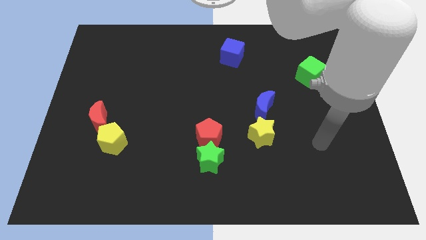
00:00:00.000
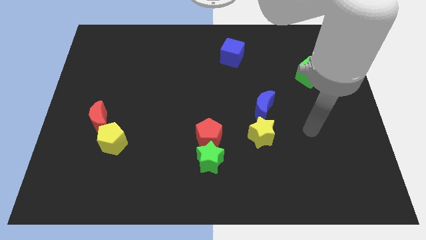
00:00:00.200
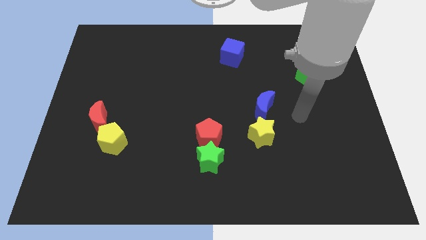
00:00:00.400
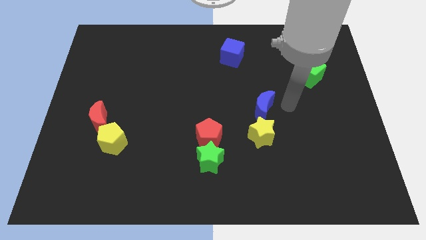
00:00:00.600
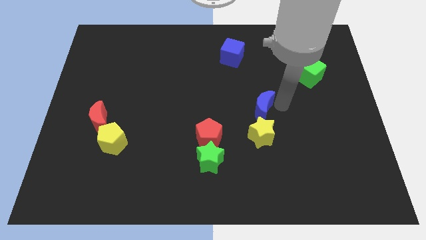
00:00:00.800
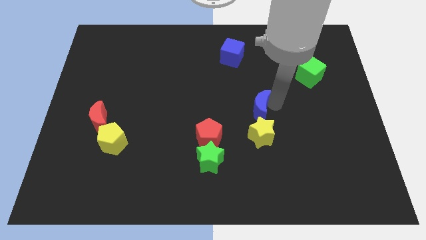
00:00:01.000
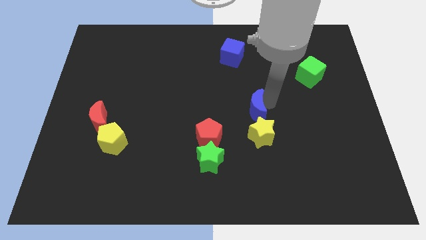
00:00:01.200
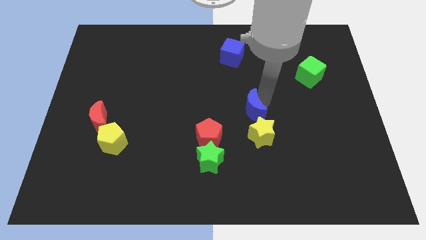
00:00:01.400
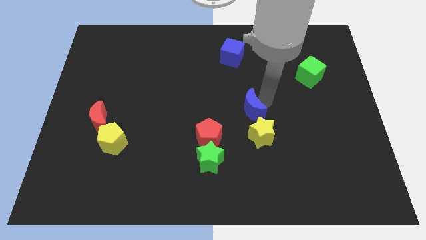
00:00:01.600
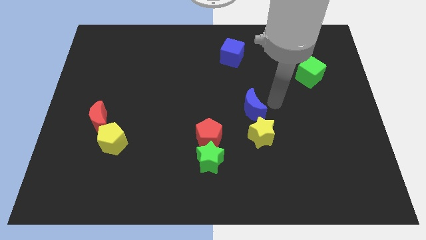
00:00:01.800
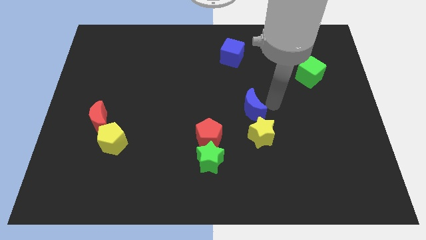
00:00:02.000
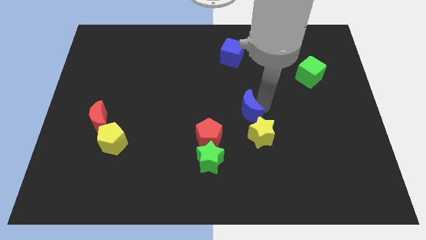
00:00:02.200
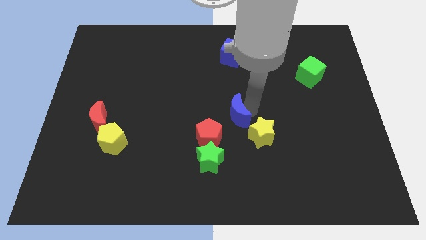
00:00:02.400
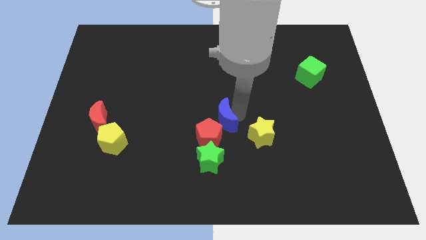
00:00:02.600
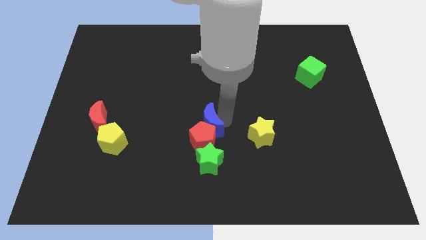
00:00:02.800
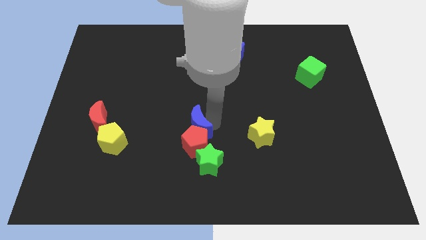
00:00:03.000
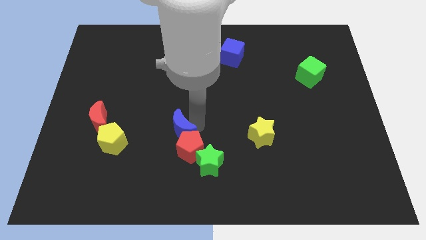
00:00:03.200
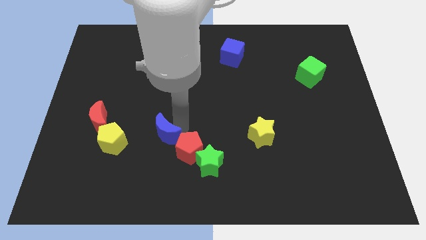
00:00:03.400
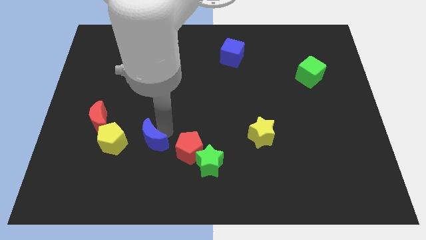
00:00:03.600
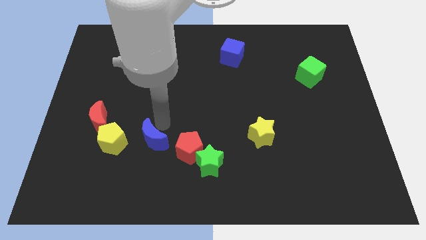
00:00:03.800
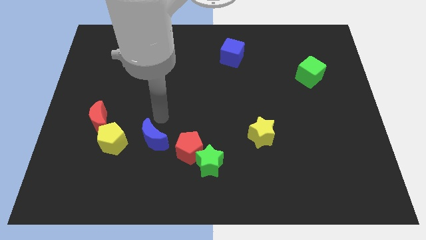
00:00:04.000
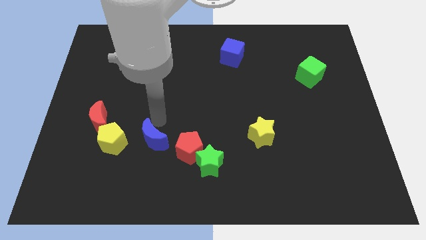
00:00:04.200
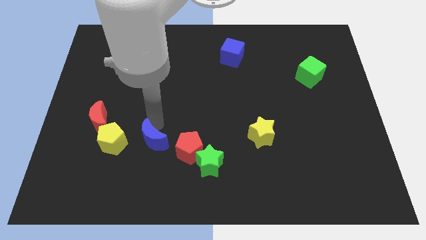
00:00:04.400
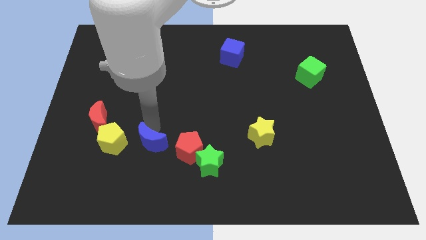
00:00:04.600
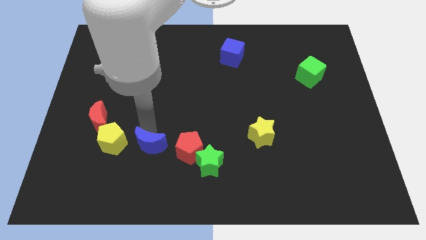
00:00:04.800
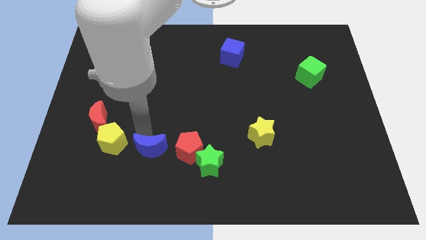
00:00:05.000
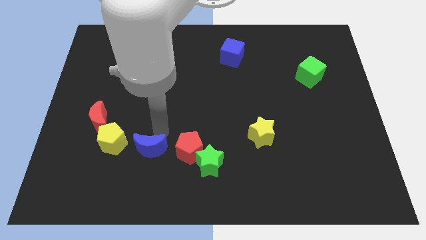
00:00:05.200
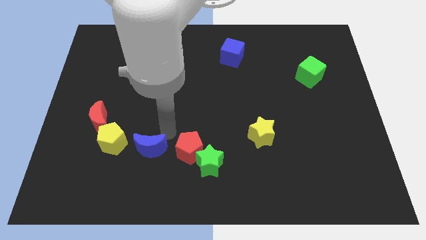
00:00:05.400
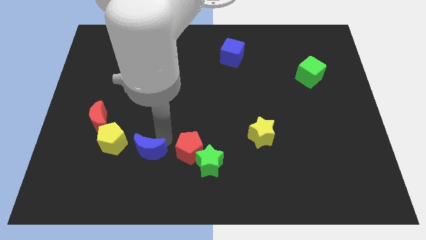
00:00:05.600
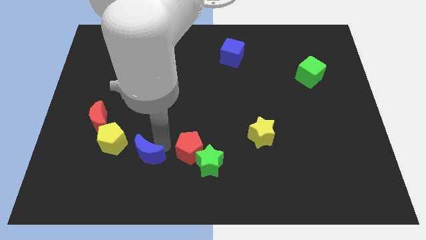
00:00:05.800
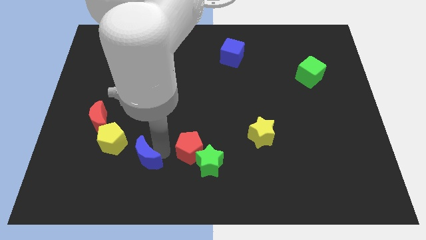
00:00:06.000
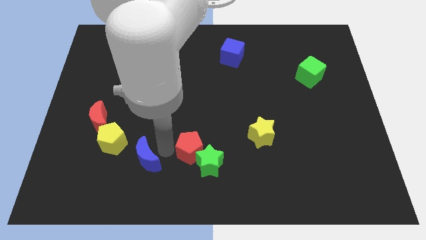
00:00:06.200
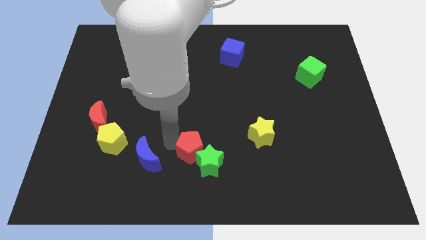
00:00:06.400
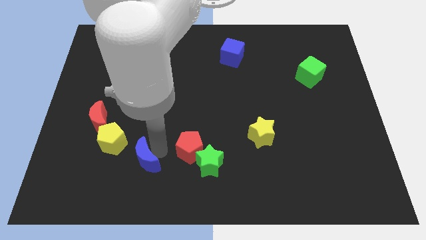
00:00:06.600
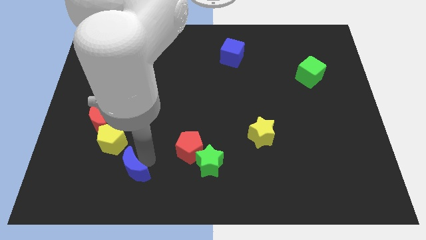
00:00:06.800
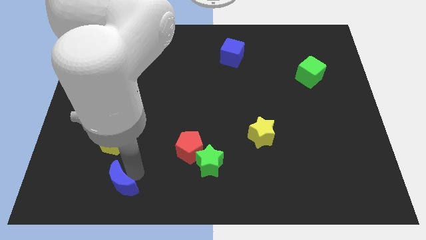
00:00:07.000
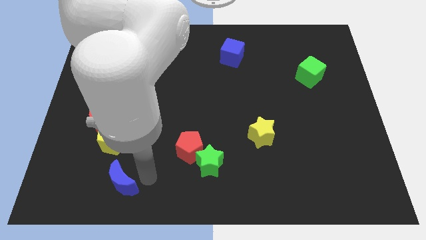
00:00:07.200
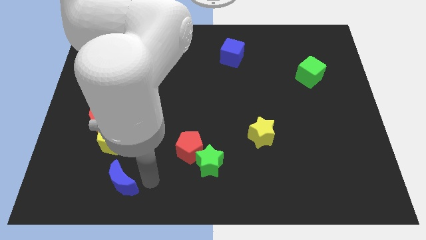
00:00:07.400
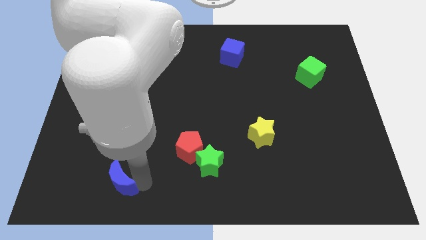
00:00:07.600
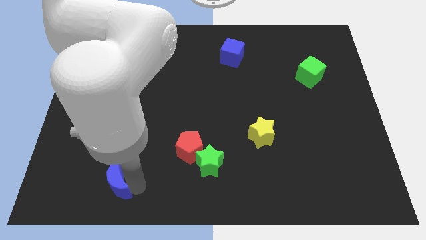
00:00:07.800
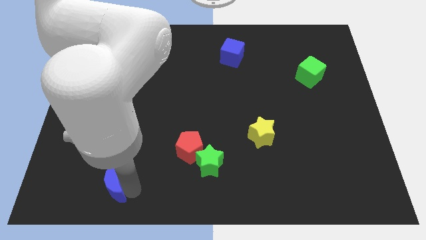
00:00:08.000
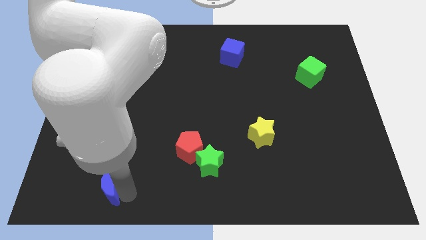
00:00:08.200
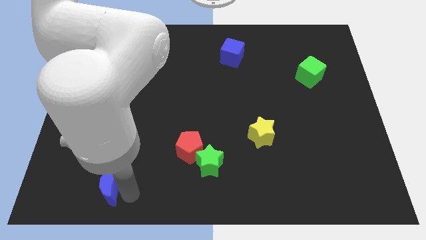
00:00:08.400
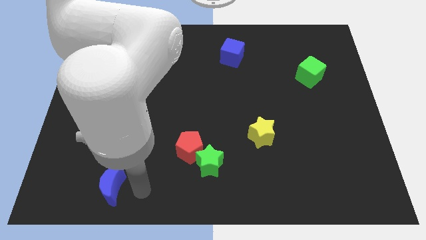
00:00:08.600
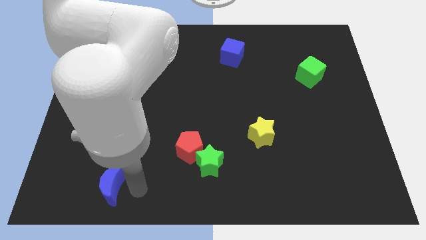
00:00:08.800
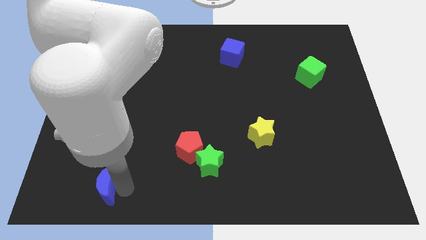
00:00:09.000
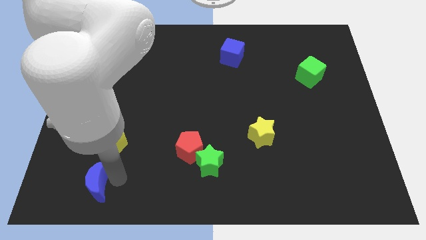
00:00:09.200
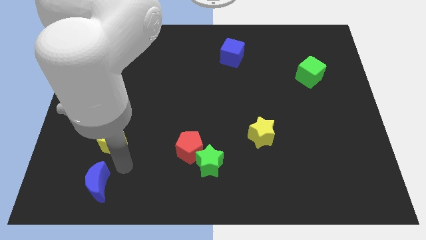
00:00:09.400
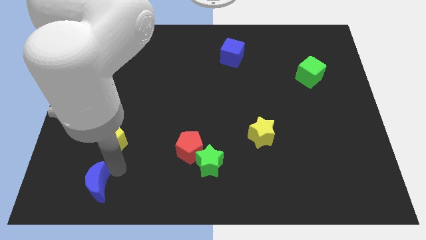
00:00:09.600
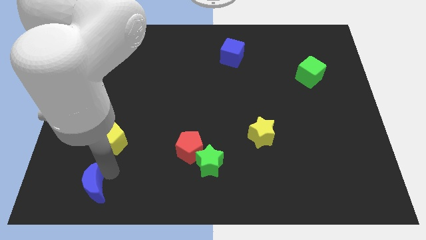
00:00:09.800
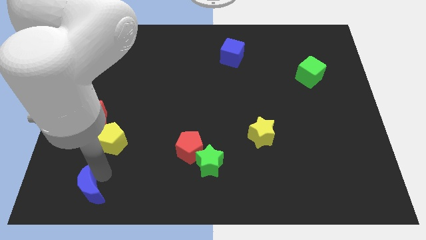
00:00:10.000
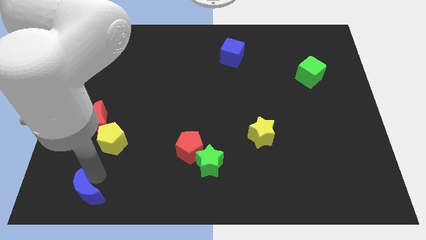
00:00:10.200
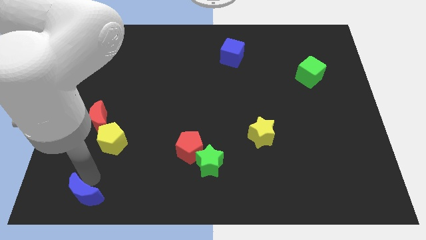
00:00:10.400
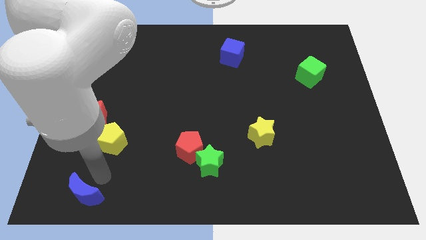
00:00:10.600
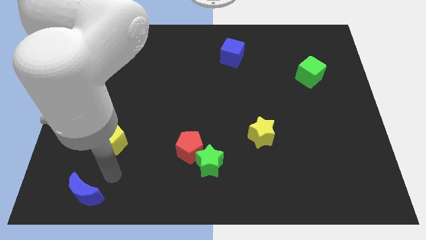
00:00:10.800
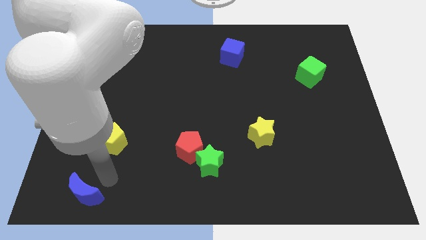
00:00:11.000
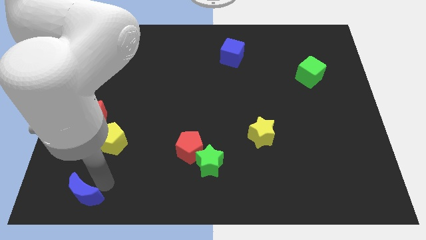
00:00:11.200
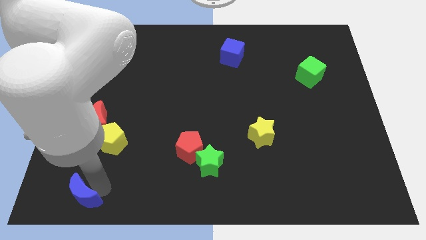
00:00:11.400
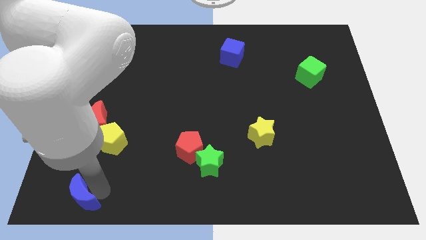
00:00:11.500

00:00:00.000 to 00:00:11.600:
move the blue moon to the lower left corner

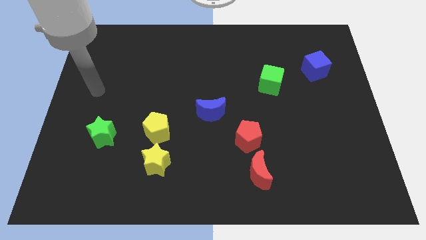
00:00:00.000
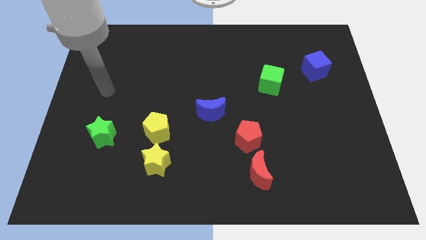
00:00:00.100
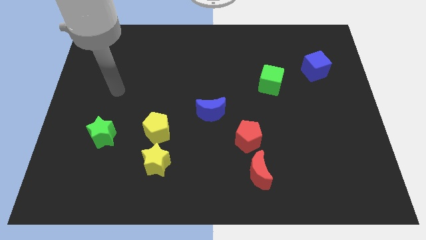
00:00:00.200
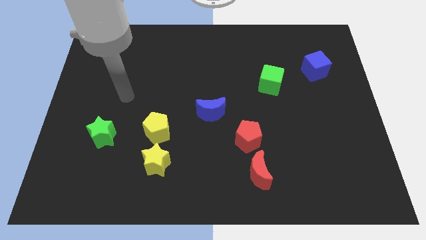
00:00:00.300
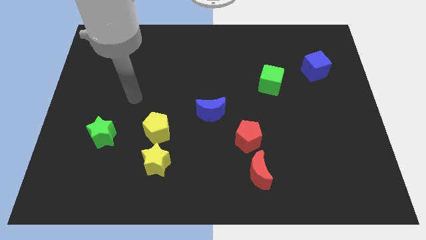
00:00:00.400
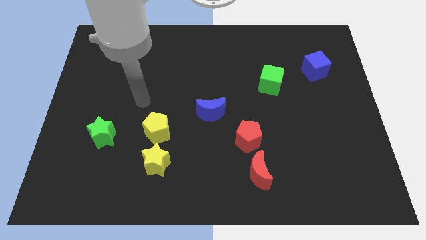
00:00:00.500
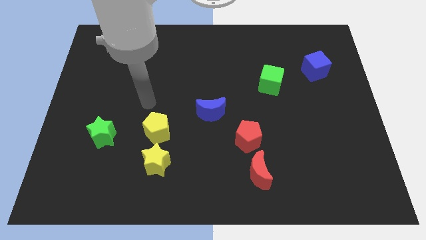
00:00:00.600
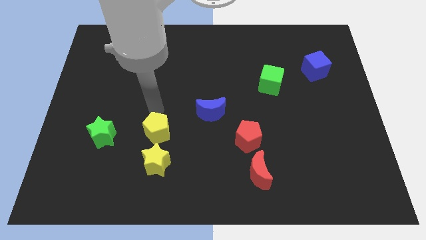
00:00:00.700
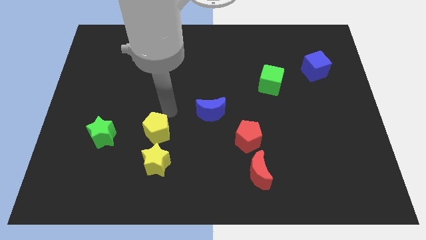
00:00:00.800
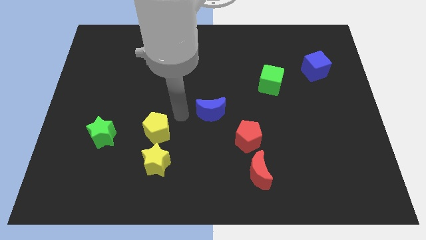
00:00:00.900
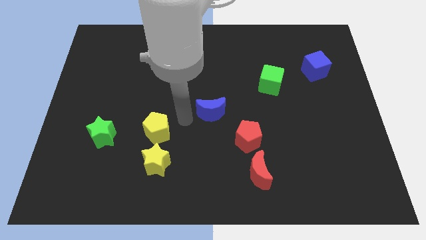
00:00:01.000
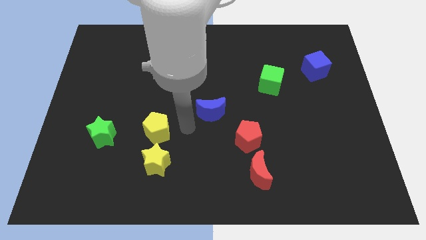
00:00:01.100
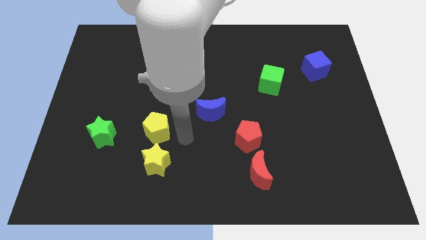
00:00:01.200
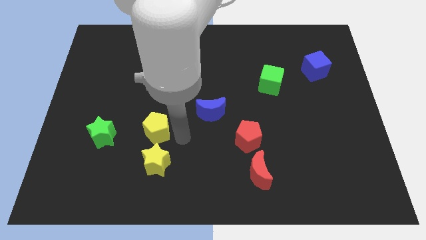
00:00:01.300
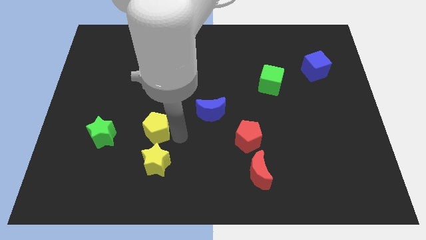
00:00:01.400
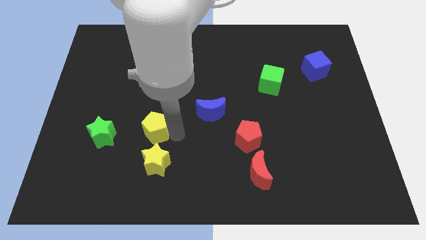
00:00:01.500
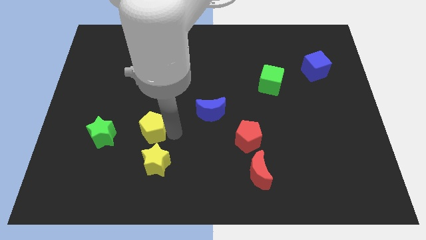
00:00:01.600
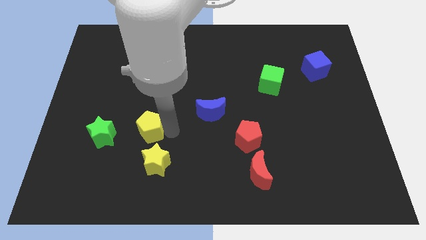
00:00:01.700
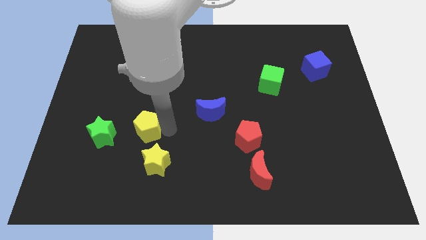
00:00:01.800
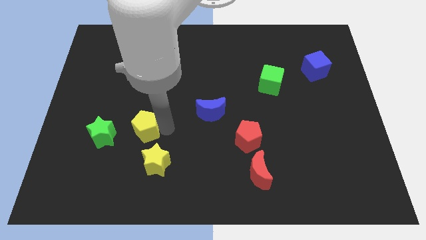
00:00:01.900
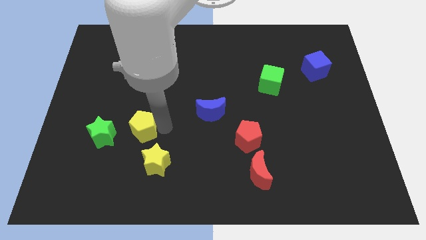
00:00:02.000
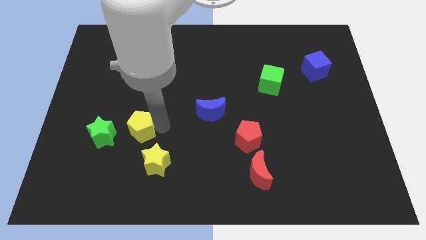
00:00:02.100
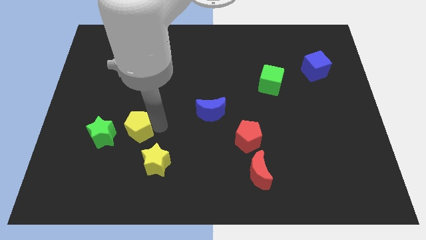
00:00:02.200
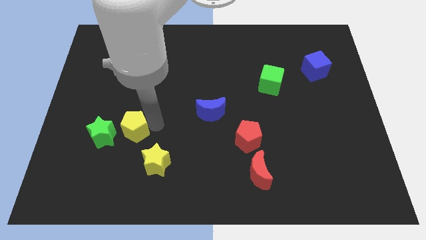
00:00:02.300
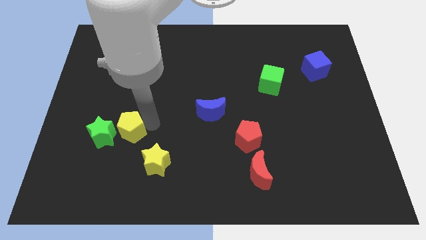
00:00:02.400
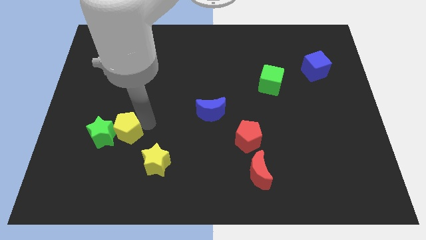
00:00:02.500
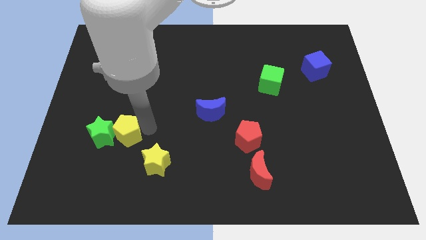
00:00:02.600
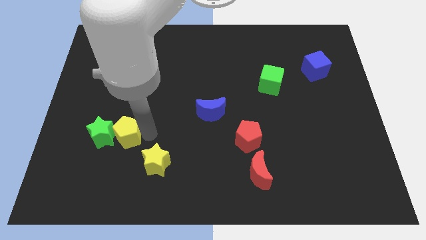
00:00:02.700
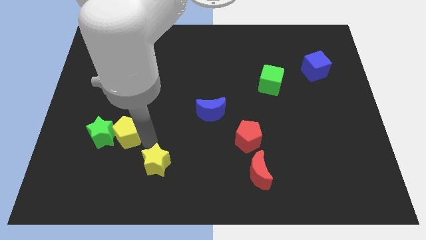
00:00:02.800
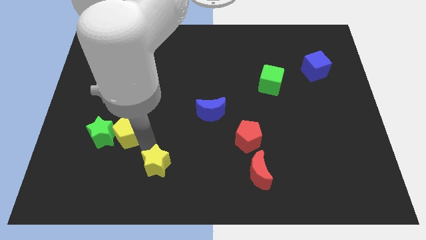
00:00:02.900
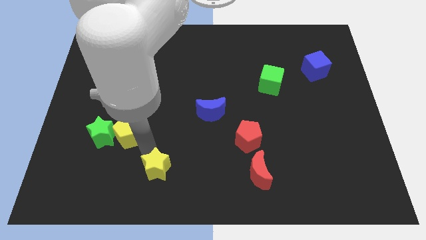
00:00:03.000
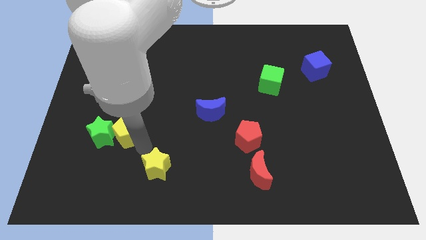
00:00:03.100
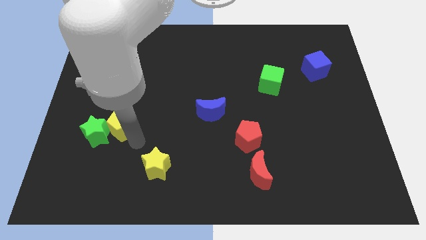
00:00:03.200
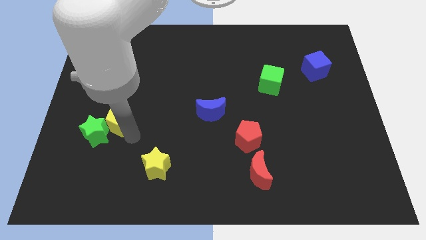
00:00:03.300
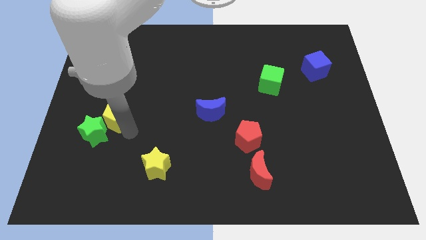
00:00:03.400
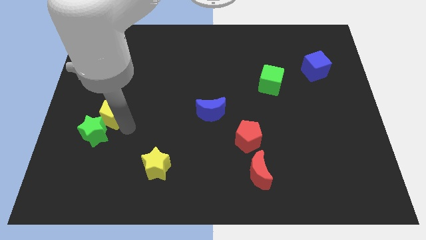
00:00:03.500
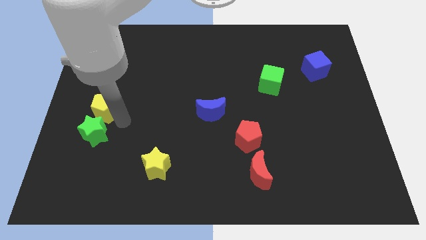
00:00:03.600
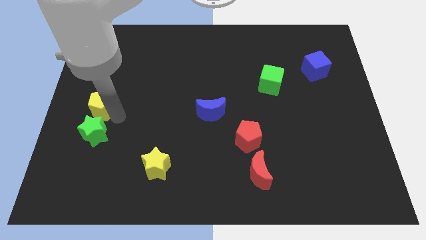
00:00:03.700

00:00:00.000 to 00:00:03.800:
put the yellow pentagon to the left side
